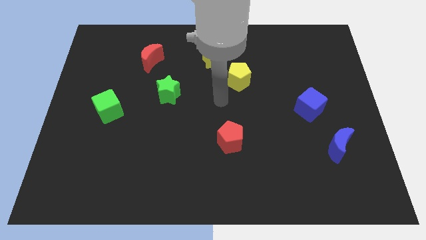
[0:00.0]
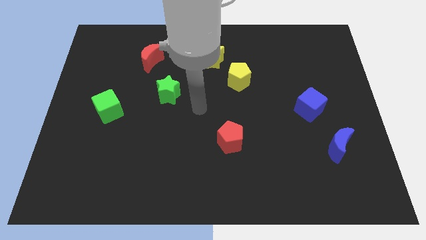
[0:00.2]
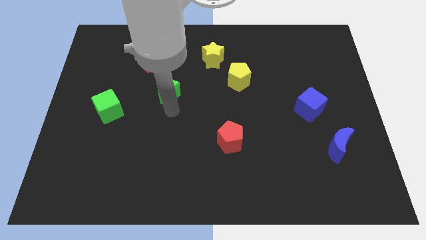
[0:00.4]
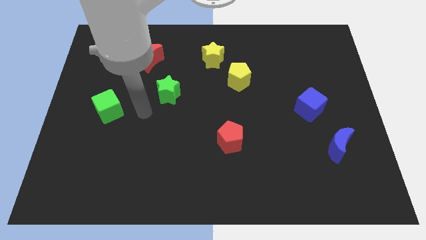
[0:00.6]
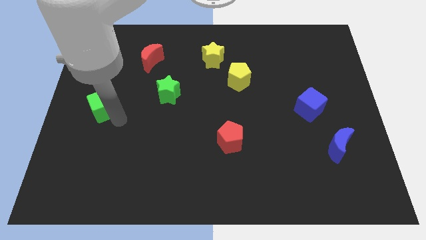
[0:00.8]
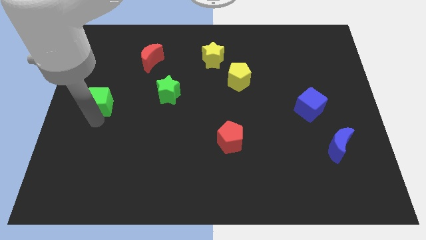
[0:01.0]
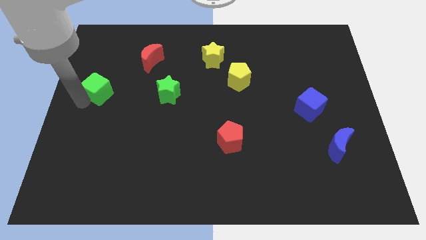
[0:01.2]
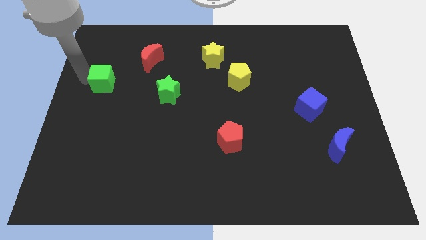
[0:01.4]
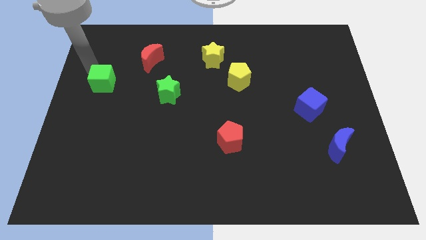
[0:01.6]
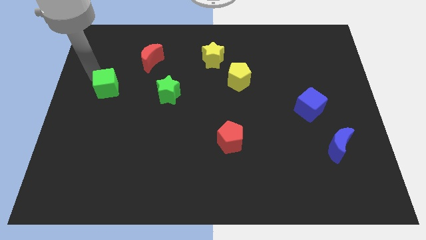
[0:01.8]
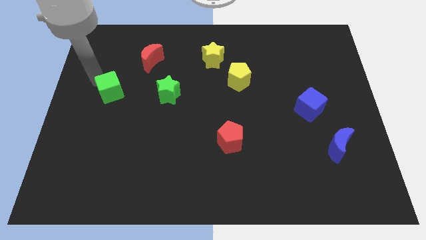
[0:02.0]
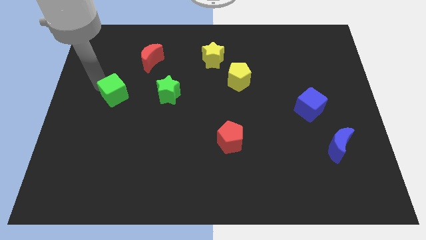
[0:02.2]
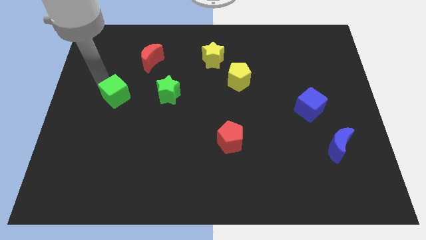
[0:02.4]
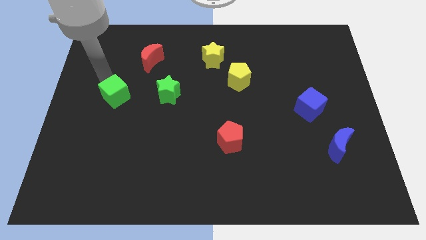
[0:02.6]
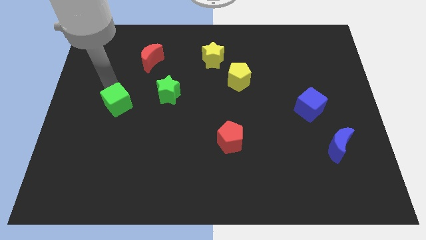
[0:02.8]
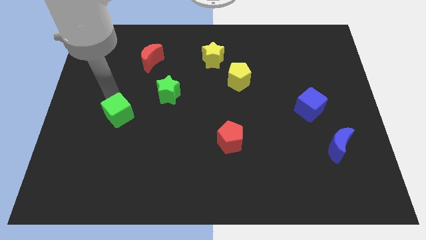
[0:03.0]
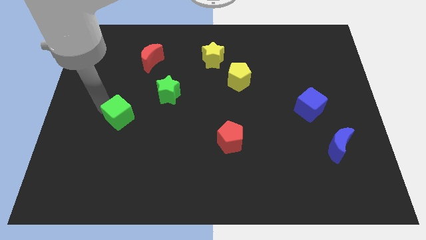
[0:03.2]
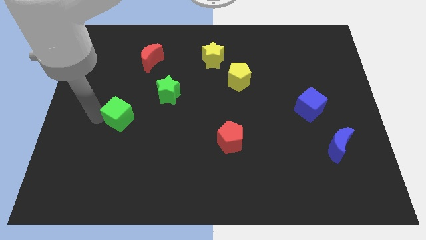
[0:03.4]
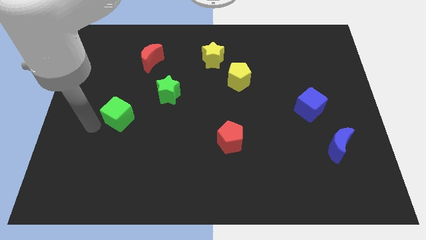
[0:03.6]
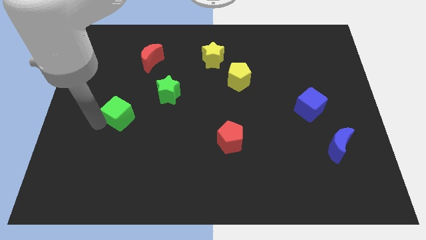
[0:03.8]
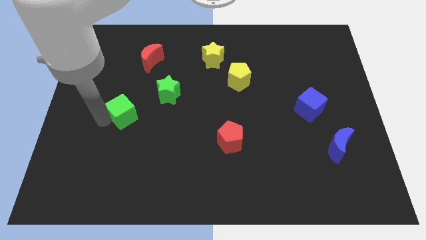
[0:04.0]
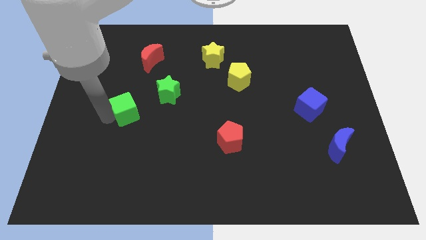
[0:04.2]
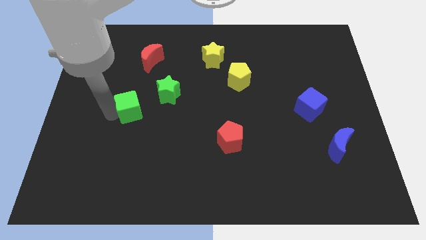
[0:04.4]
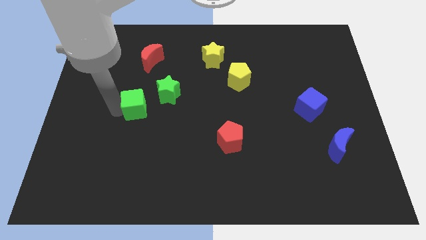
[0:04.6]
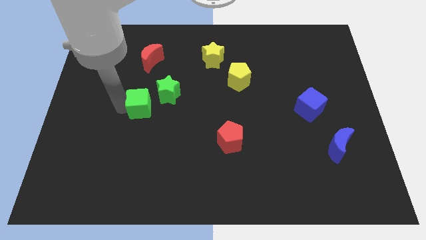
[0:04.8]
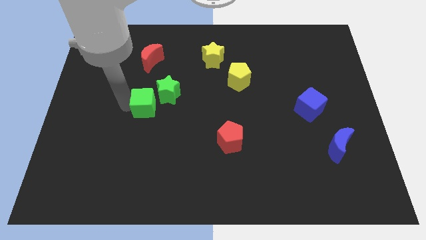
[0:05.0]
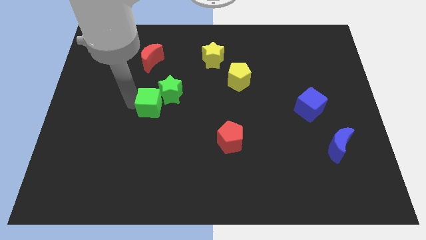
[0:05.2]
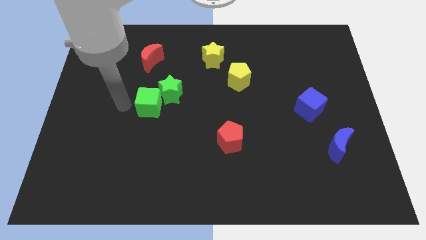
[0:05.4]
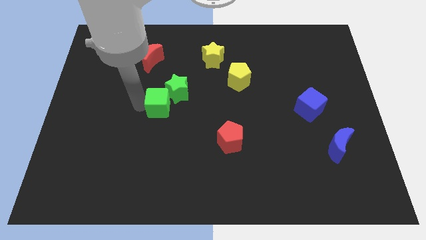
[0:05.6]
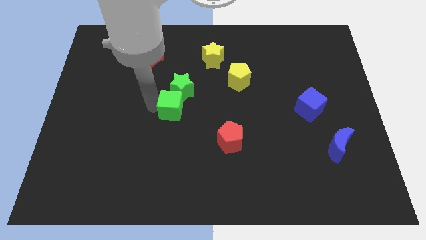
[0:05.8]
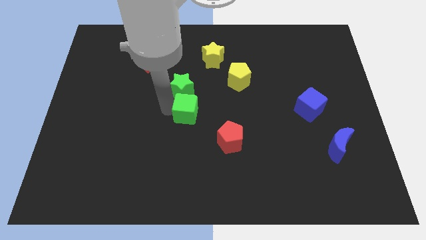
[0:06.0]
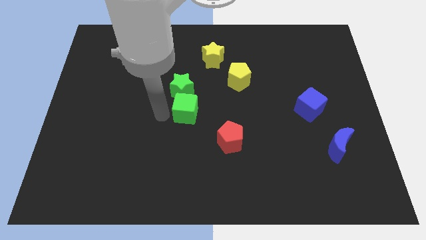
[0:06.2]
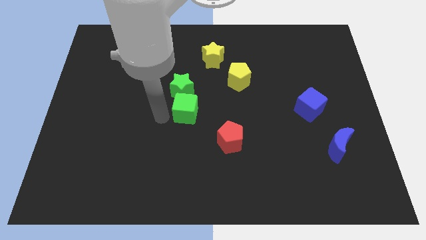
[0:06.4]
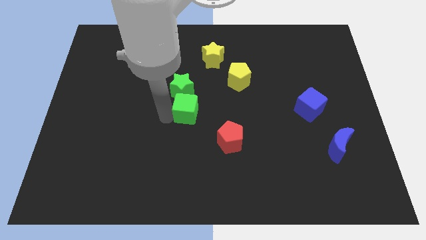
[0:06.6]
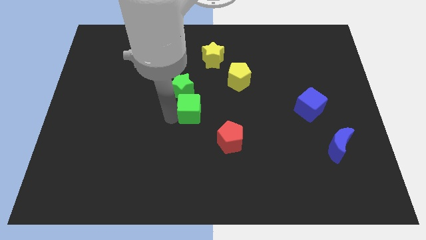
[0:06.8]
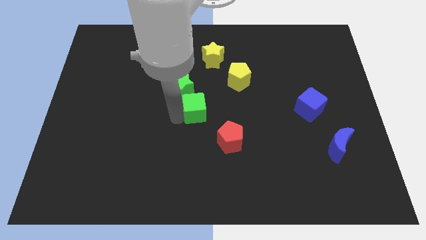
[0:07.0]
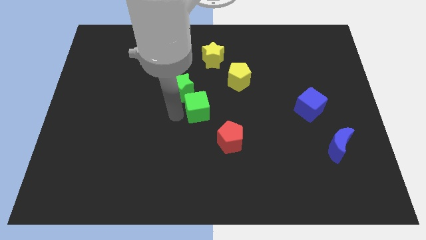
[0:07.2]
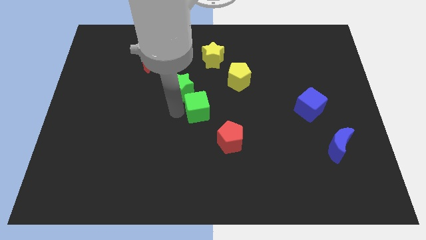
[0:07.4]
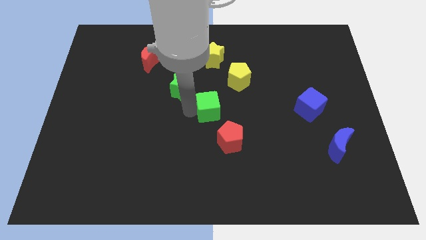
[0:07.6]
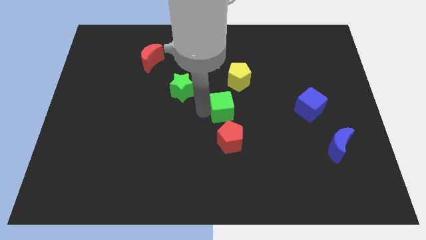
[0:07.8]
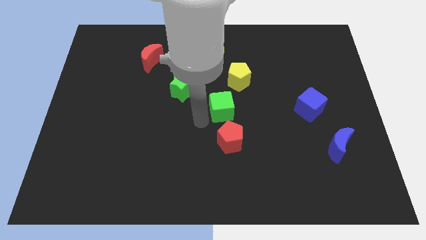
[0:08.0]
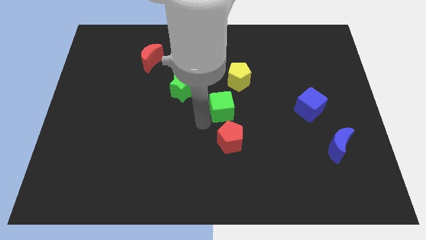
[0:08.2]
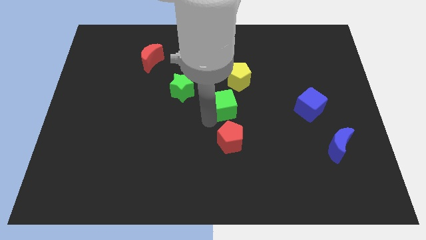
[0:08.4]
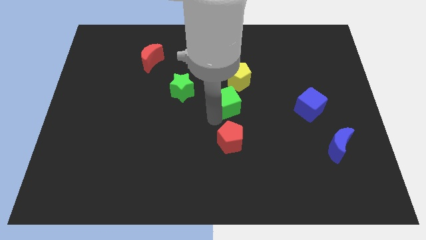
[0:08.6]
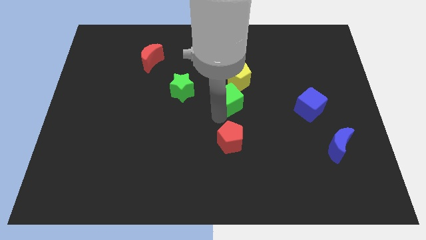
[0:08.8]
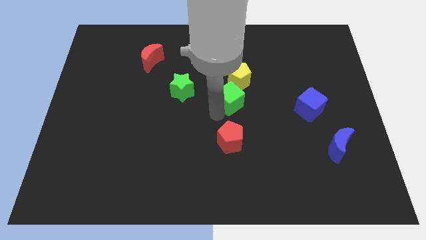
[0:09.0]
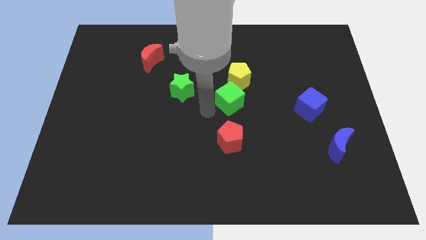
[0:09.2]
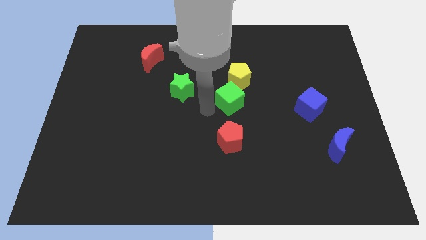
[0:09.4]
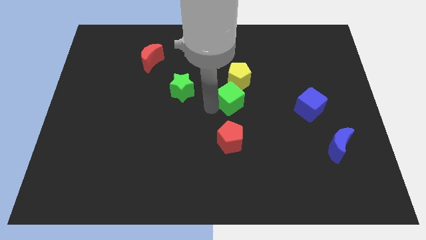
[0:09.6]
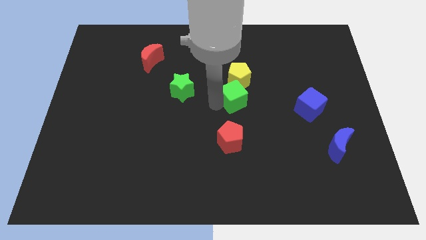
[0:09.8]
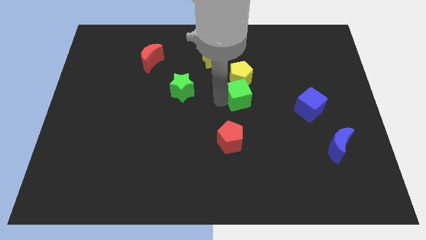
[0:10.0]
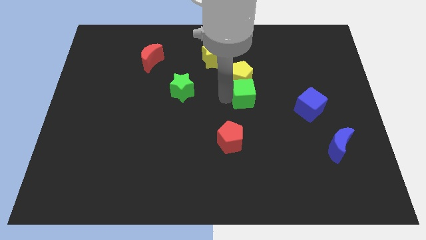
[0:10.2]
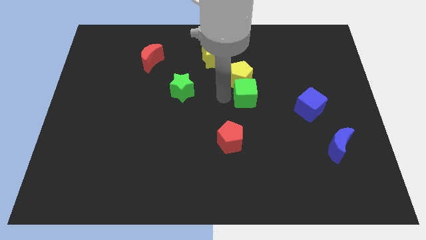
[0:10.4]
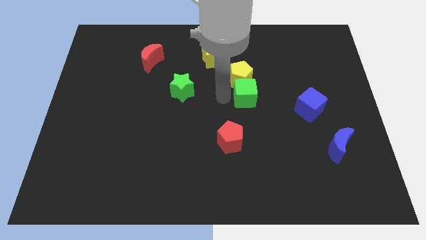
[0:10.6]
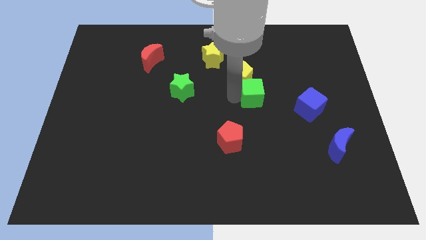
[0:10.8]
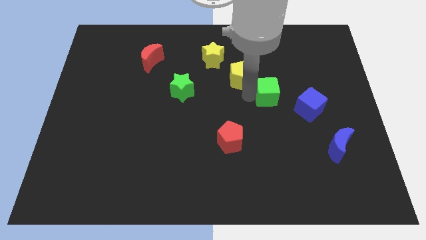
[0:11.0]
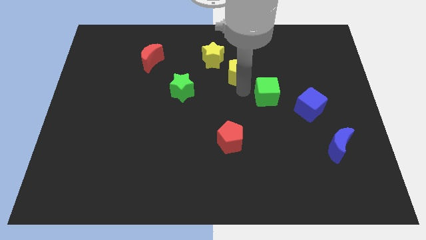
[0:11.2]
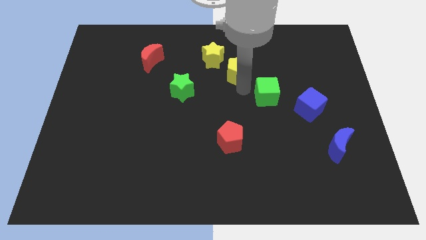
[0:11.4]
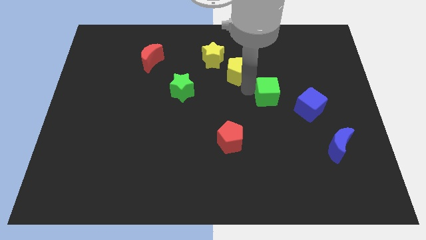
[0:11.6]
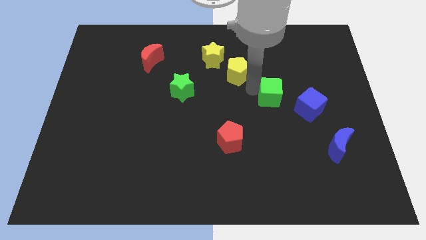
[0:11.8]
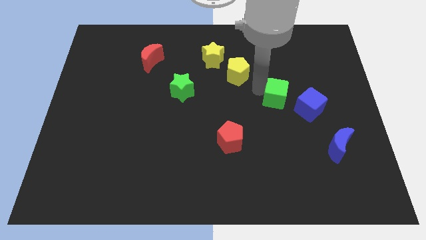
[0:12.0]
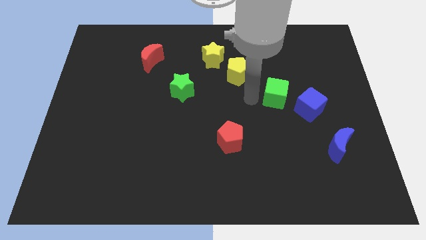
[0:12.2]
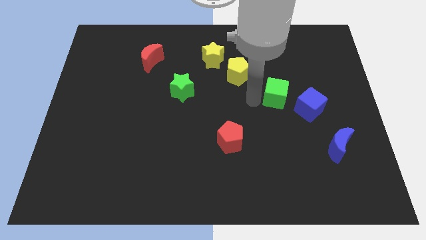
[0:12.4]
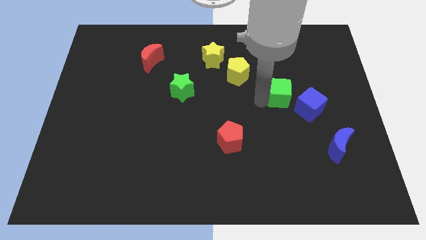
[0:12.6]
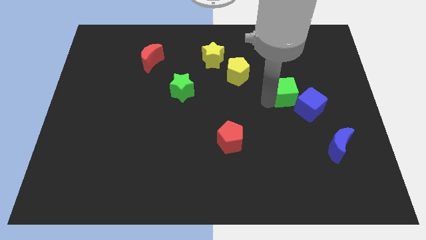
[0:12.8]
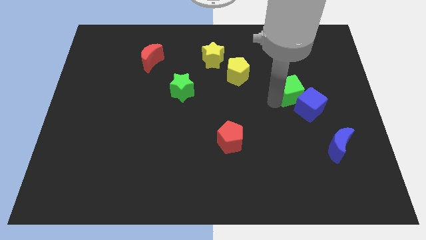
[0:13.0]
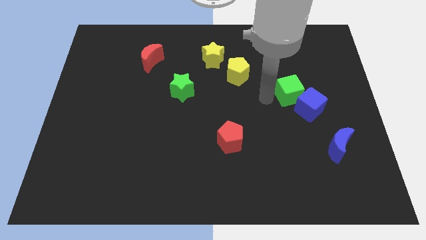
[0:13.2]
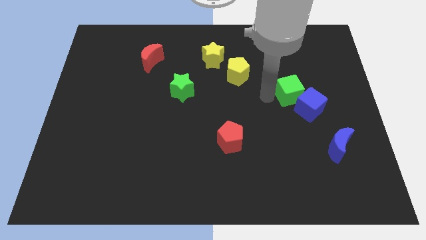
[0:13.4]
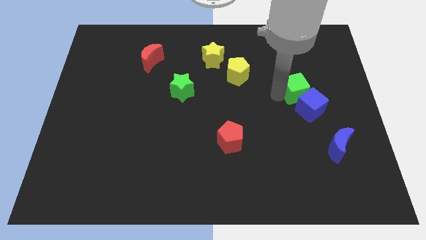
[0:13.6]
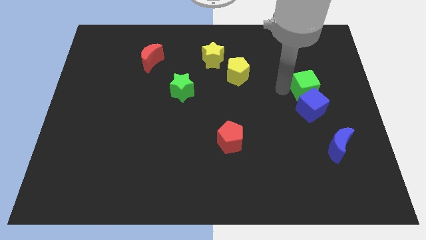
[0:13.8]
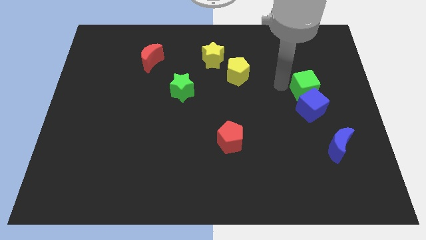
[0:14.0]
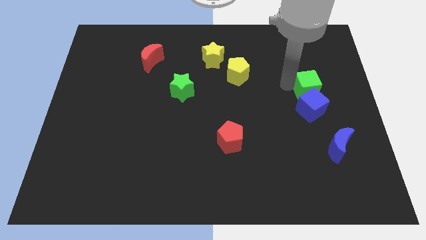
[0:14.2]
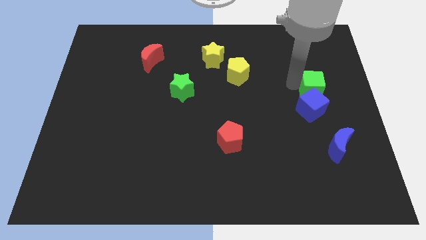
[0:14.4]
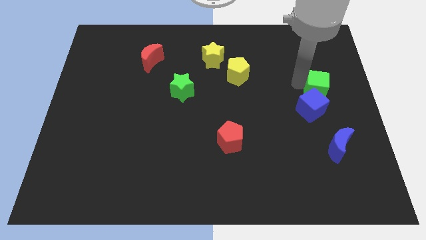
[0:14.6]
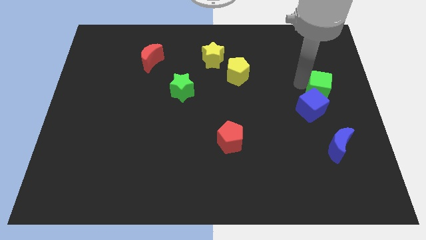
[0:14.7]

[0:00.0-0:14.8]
move the green cube to the right side of the board
